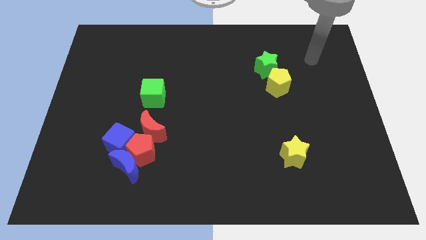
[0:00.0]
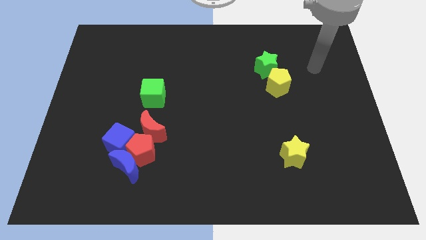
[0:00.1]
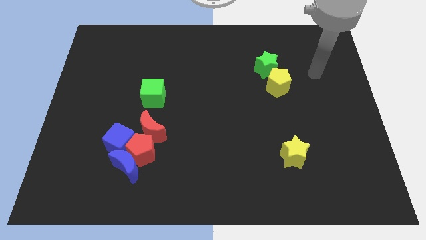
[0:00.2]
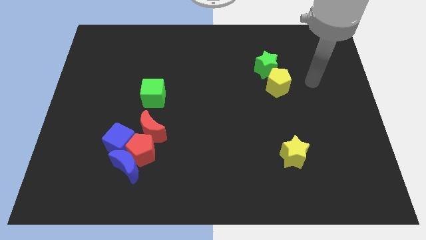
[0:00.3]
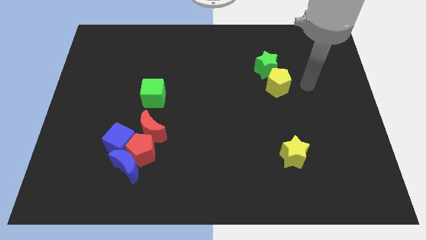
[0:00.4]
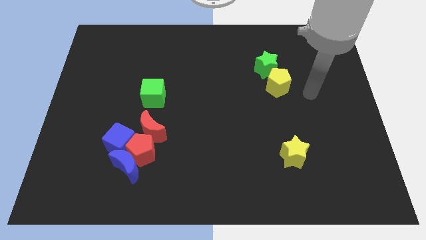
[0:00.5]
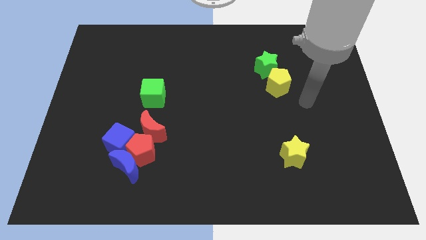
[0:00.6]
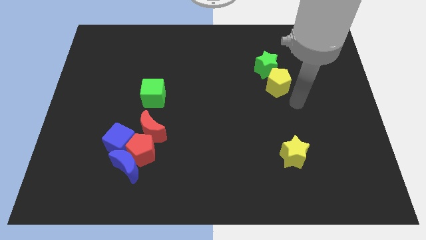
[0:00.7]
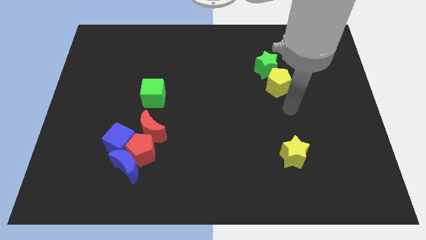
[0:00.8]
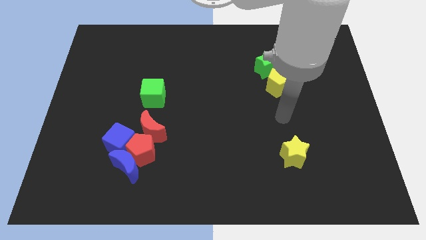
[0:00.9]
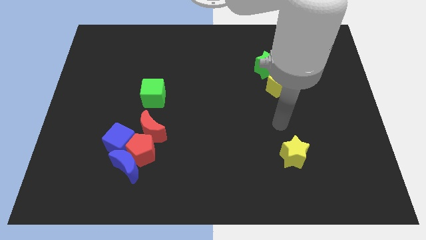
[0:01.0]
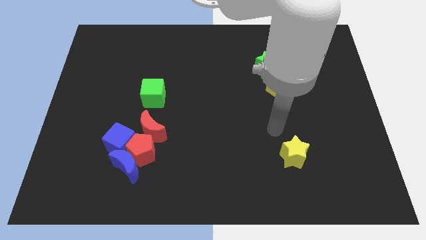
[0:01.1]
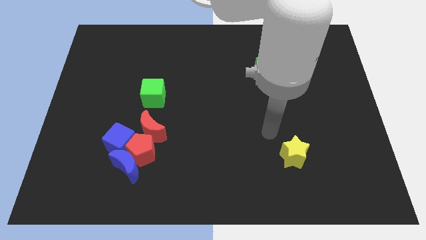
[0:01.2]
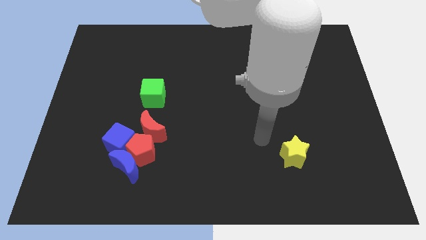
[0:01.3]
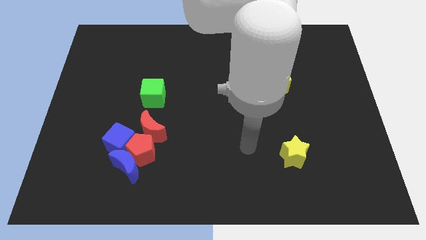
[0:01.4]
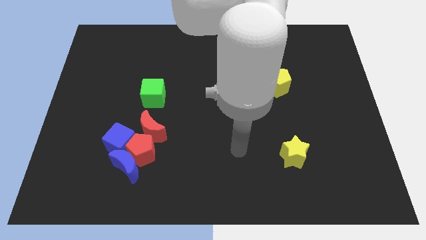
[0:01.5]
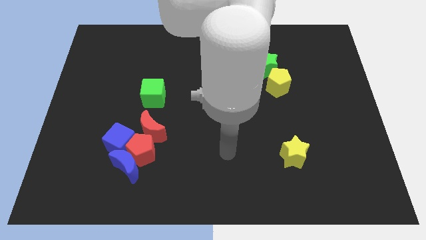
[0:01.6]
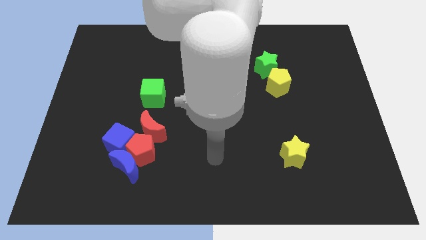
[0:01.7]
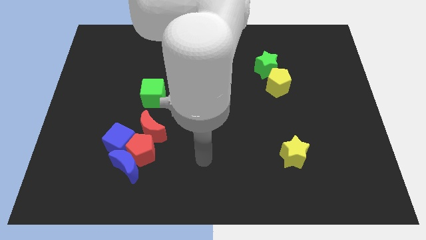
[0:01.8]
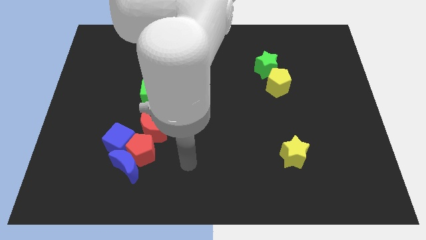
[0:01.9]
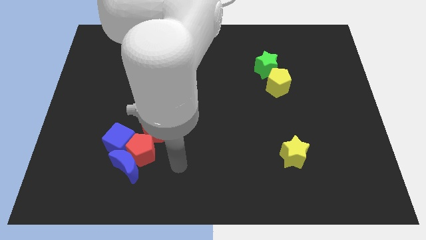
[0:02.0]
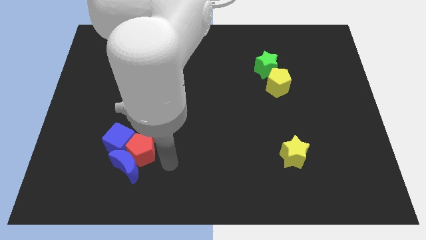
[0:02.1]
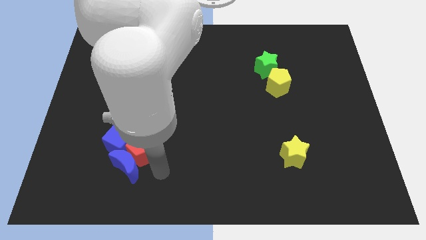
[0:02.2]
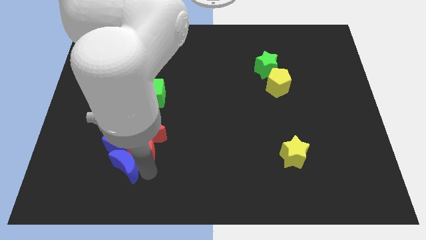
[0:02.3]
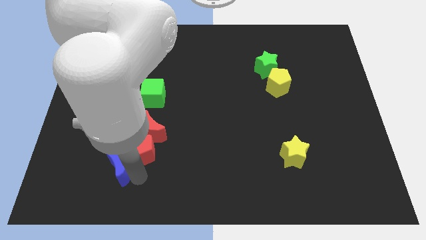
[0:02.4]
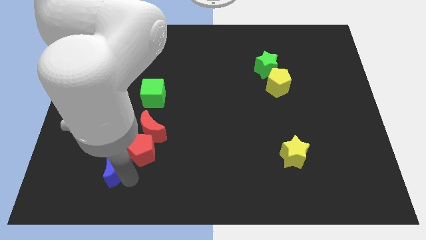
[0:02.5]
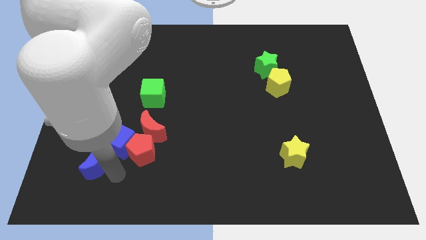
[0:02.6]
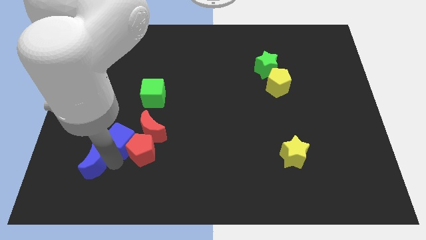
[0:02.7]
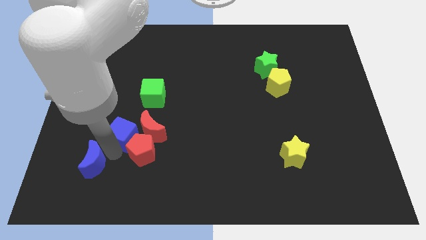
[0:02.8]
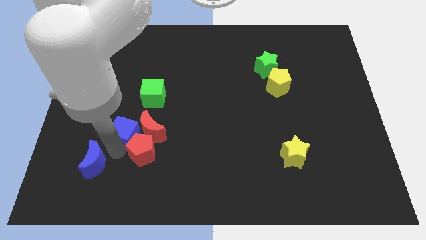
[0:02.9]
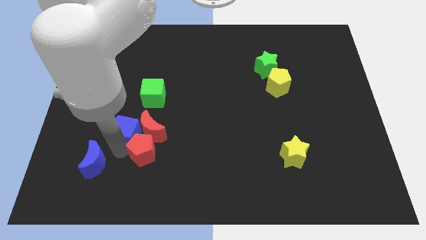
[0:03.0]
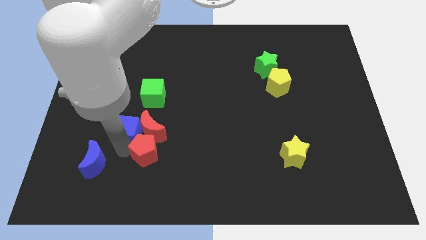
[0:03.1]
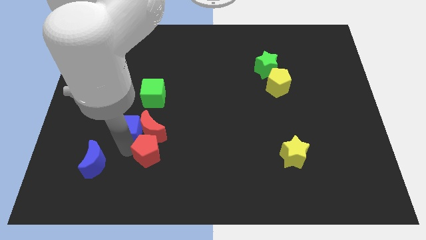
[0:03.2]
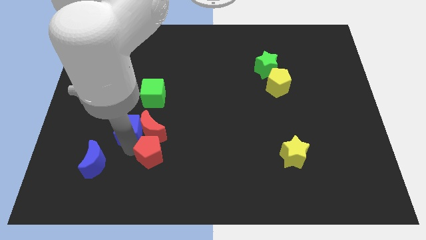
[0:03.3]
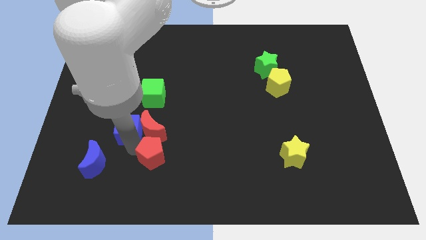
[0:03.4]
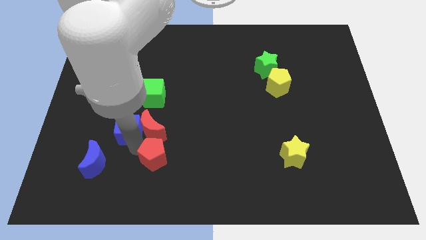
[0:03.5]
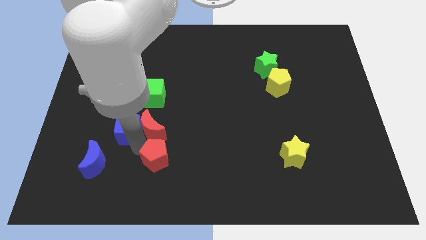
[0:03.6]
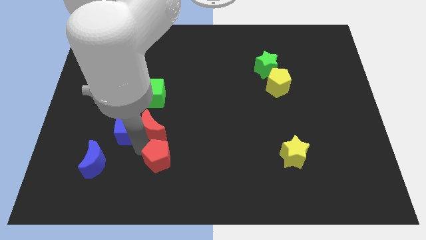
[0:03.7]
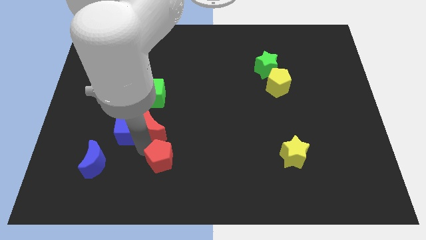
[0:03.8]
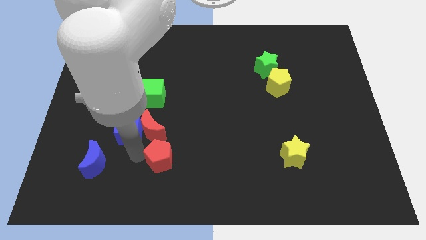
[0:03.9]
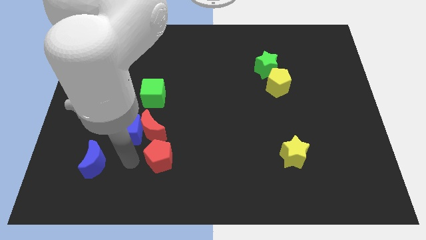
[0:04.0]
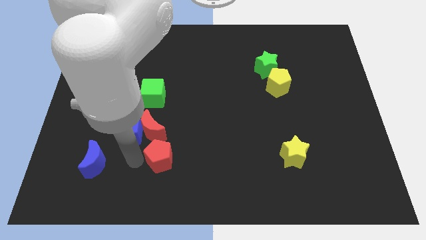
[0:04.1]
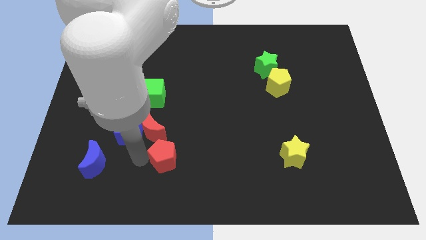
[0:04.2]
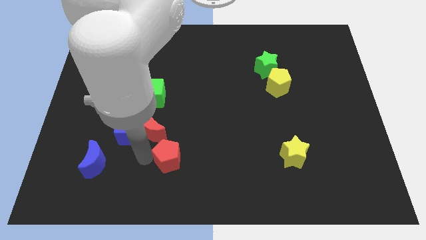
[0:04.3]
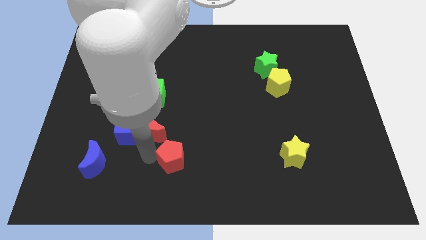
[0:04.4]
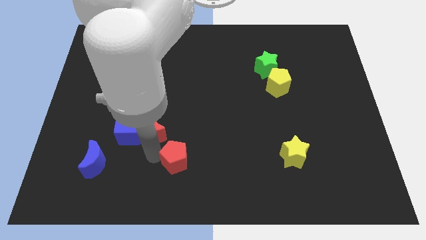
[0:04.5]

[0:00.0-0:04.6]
move the red pentagon right a bit

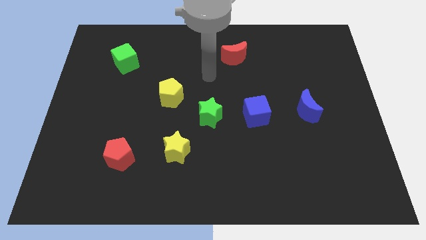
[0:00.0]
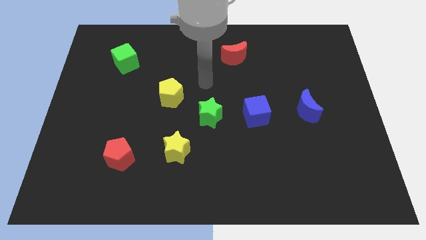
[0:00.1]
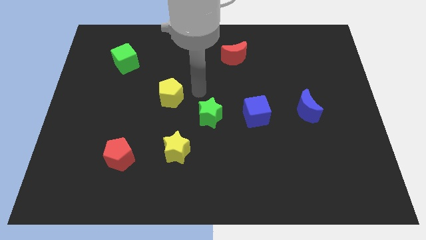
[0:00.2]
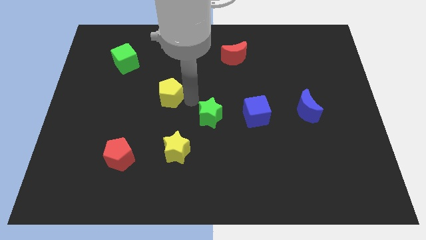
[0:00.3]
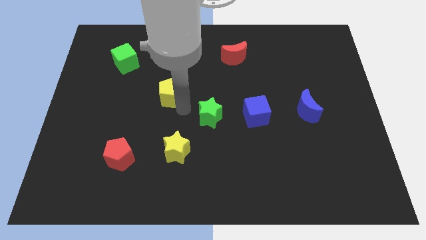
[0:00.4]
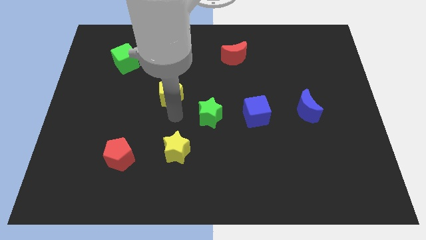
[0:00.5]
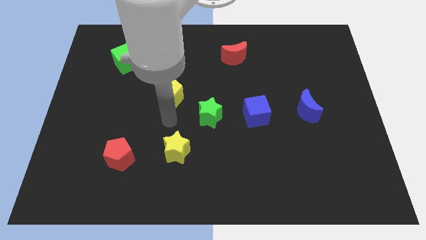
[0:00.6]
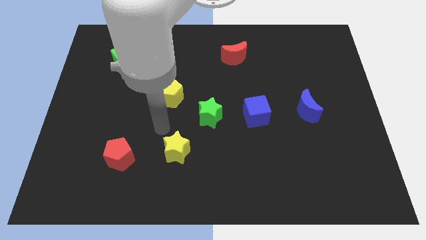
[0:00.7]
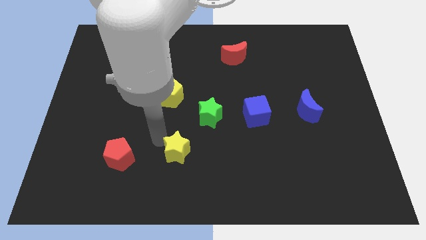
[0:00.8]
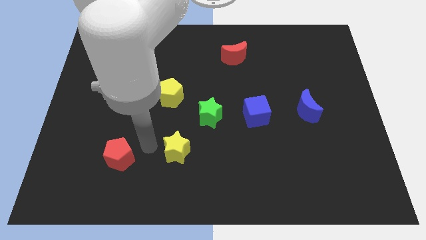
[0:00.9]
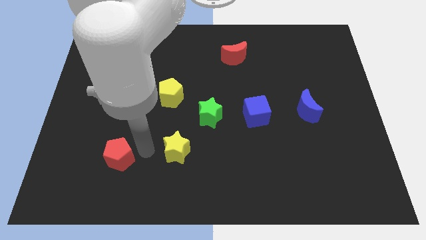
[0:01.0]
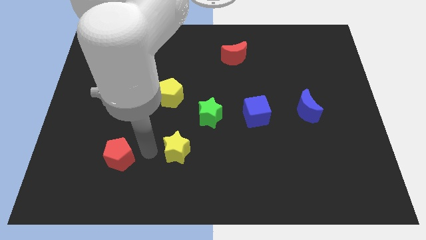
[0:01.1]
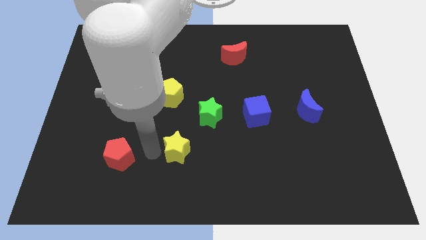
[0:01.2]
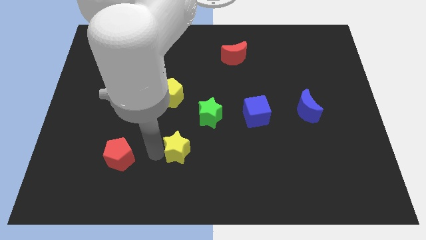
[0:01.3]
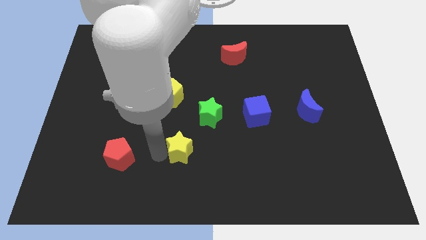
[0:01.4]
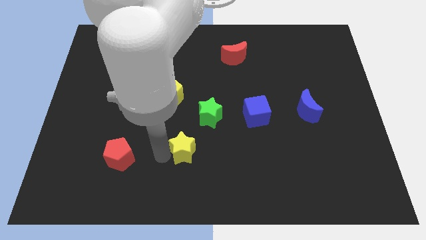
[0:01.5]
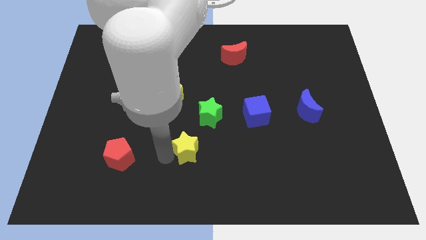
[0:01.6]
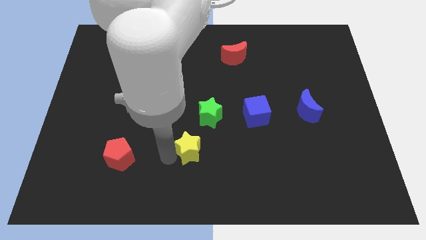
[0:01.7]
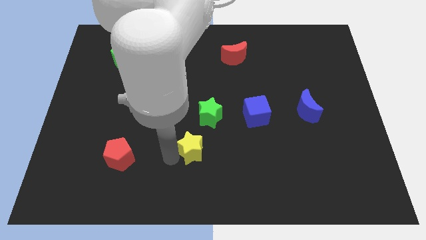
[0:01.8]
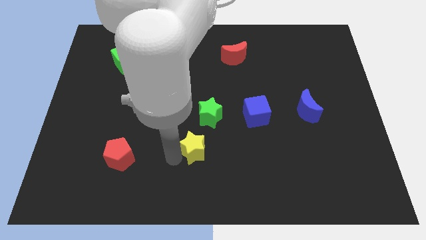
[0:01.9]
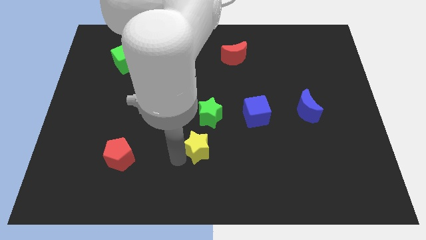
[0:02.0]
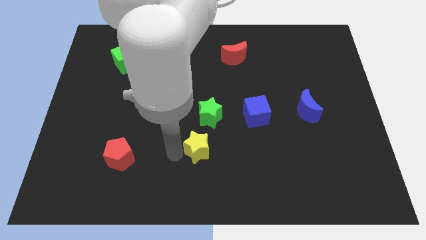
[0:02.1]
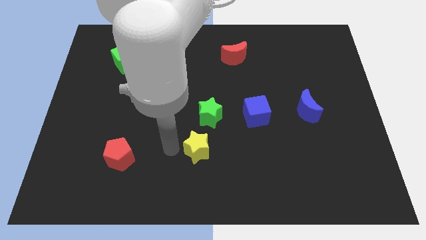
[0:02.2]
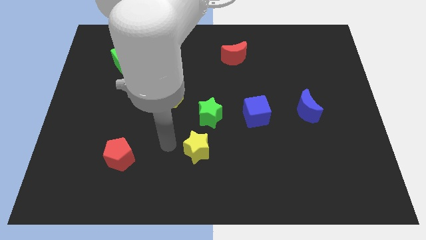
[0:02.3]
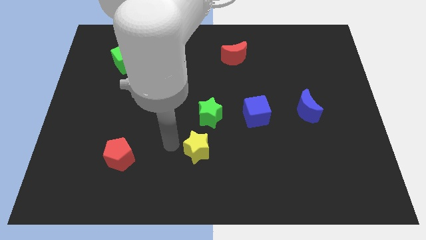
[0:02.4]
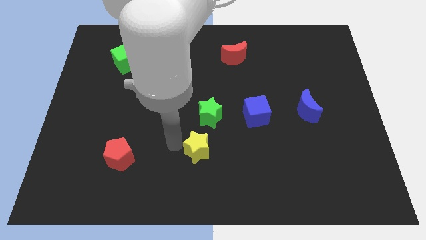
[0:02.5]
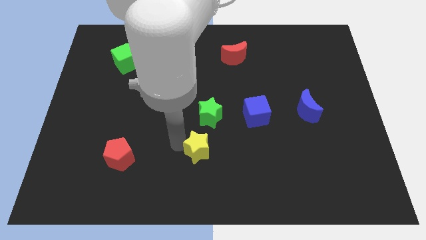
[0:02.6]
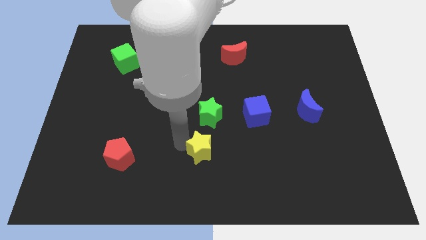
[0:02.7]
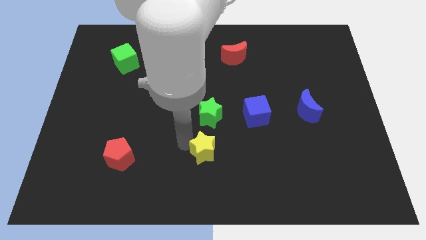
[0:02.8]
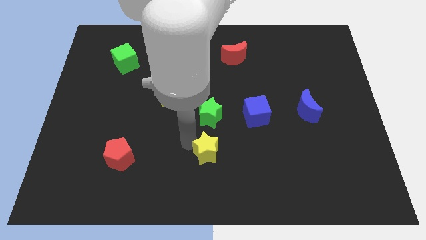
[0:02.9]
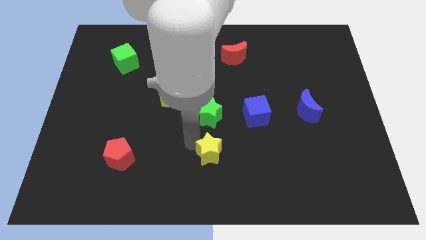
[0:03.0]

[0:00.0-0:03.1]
slide the yellow star slightly to the right
